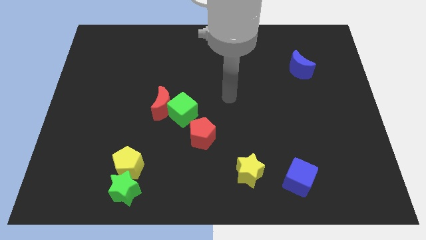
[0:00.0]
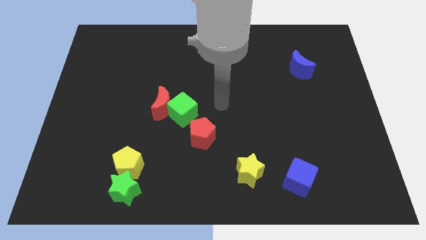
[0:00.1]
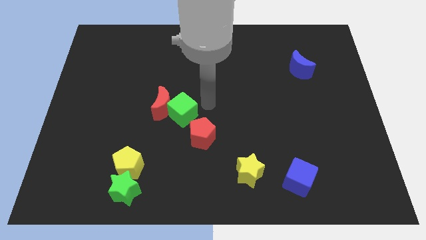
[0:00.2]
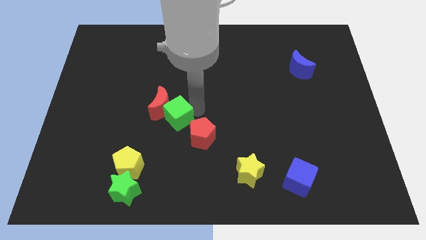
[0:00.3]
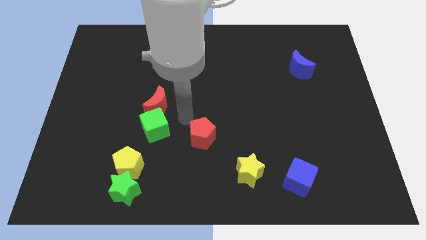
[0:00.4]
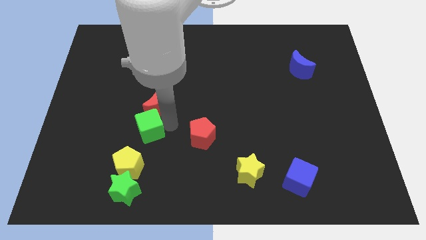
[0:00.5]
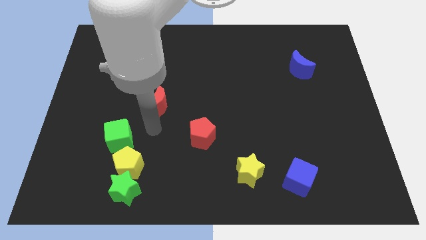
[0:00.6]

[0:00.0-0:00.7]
move the red moon away from the green cube

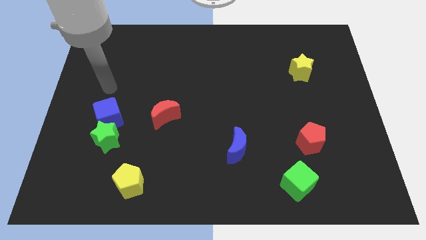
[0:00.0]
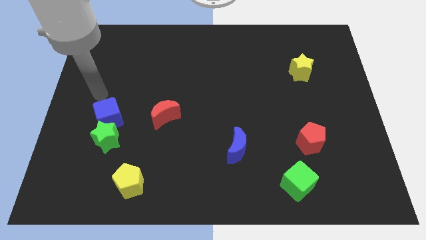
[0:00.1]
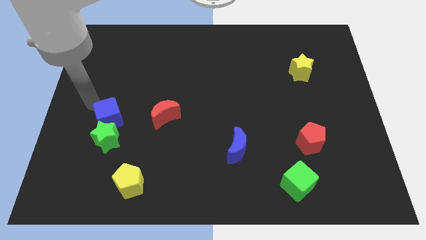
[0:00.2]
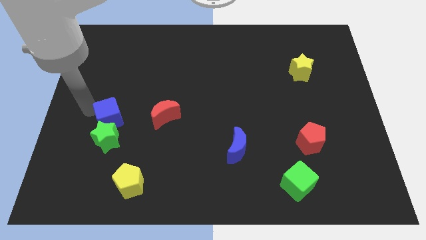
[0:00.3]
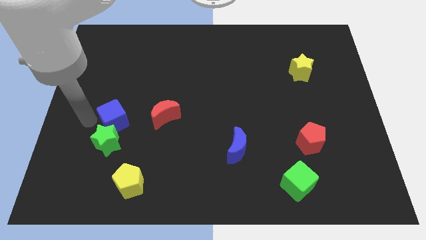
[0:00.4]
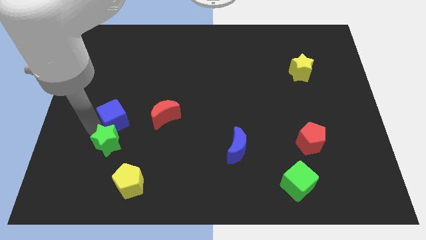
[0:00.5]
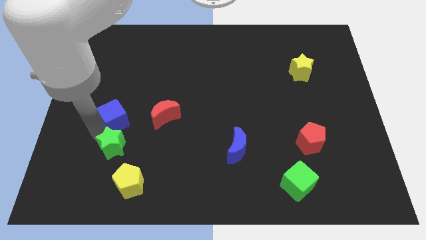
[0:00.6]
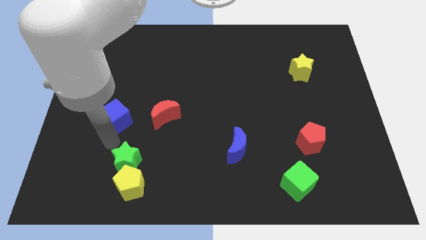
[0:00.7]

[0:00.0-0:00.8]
separate the blue cube from the green star

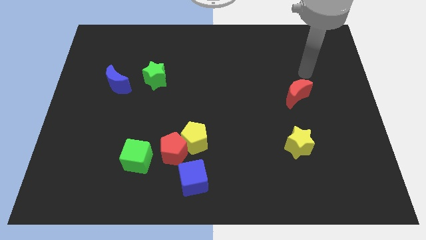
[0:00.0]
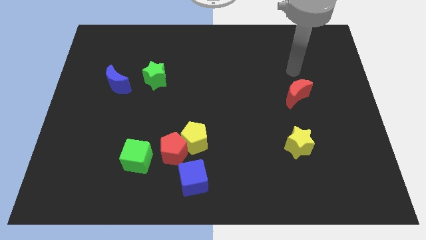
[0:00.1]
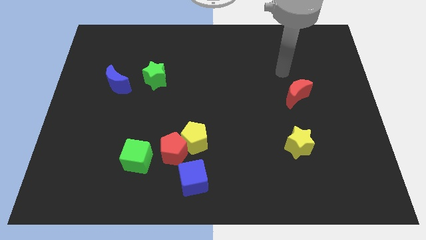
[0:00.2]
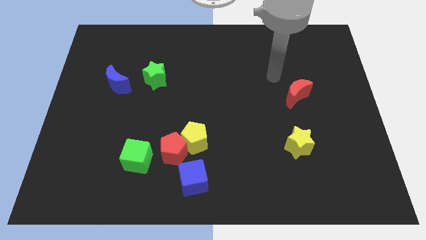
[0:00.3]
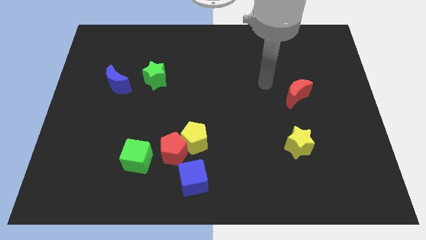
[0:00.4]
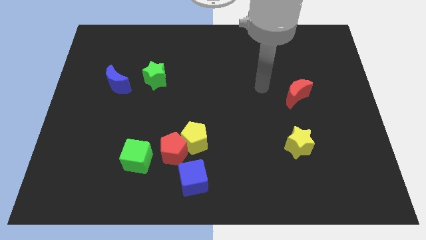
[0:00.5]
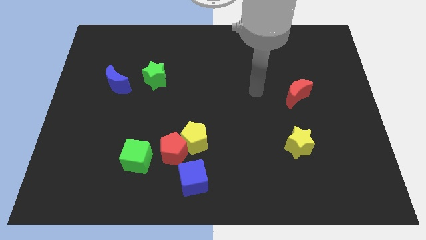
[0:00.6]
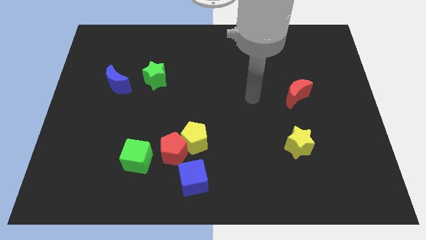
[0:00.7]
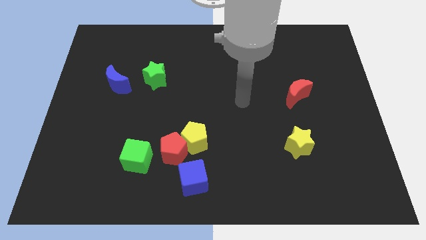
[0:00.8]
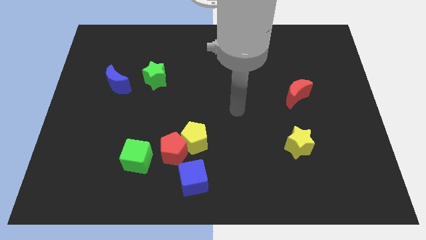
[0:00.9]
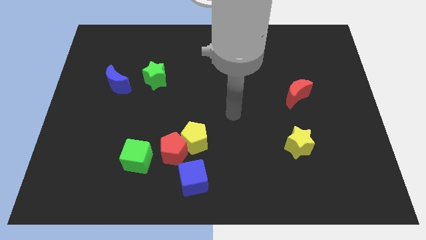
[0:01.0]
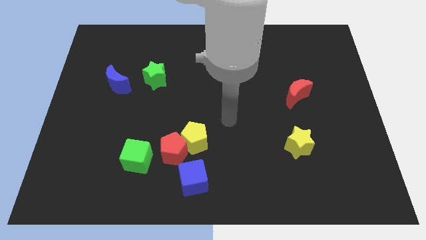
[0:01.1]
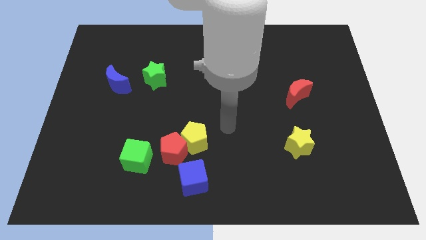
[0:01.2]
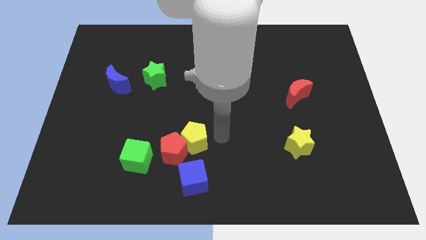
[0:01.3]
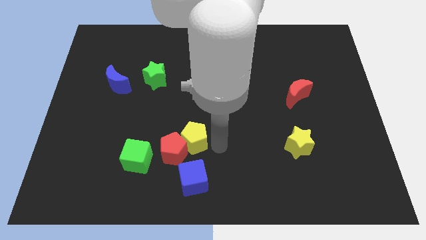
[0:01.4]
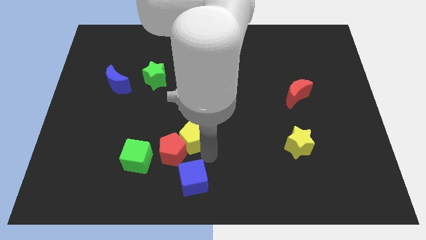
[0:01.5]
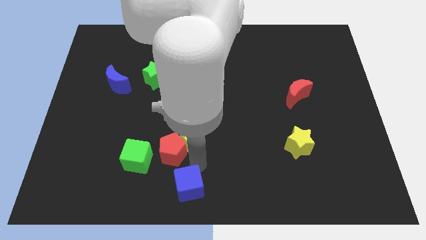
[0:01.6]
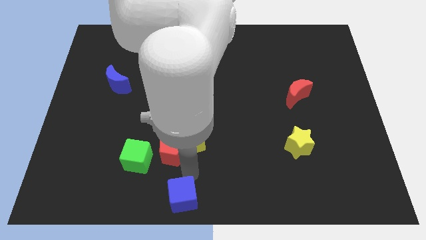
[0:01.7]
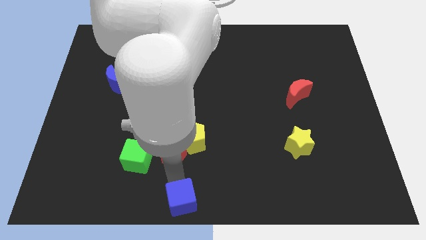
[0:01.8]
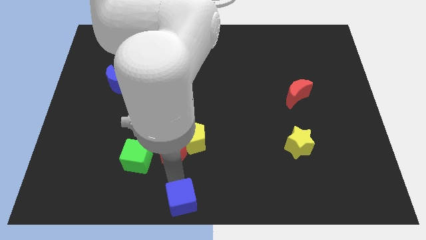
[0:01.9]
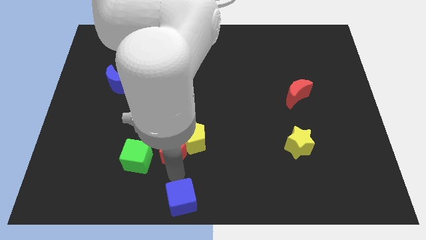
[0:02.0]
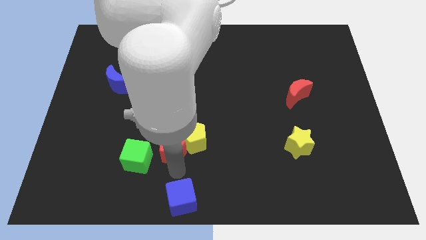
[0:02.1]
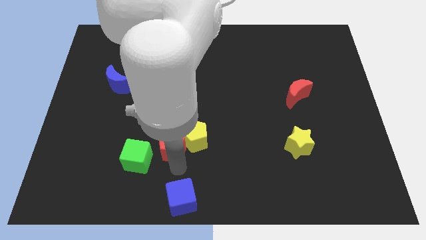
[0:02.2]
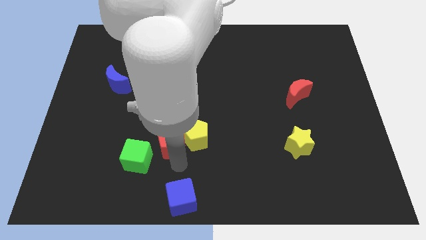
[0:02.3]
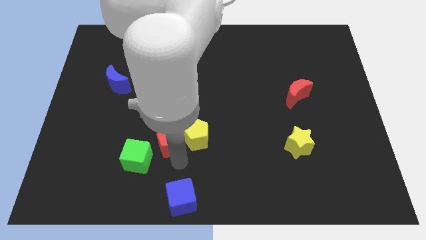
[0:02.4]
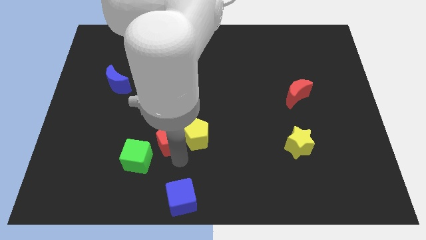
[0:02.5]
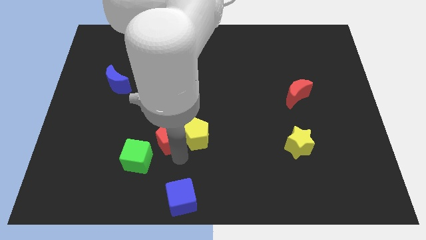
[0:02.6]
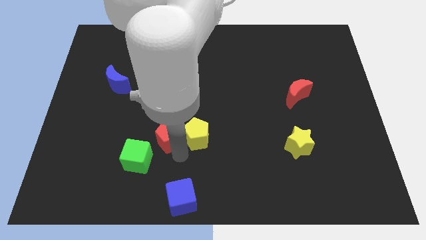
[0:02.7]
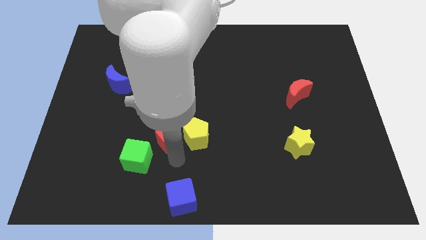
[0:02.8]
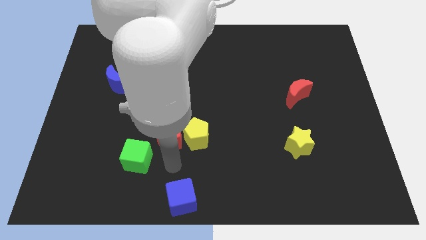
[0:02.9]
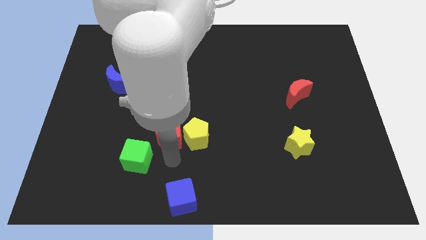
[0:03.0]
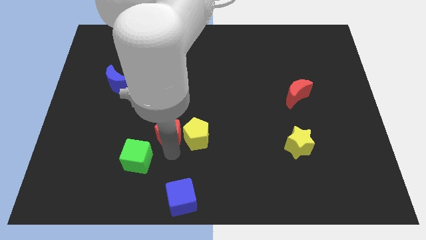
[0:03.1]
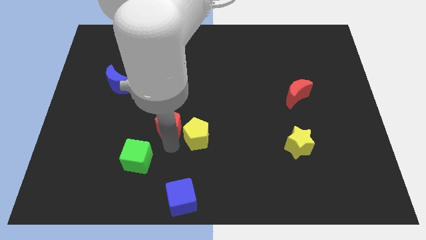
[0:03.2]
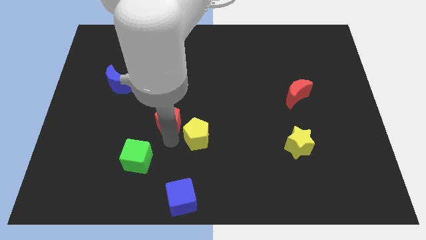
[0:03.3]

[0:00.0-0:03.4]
move the red pentagon away from the yellow pentagon, blue cube, and green cube

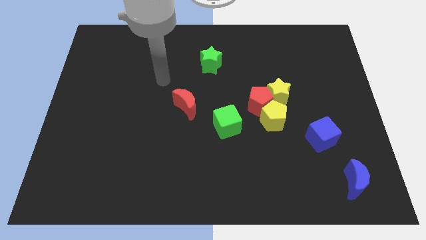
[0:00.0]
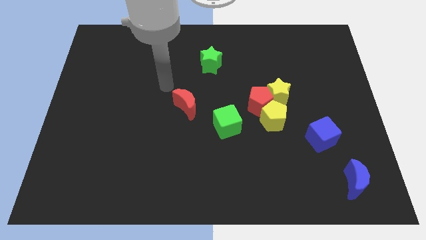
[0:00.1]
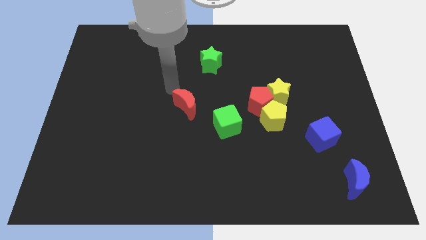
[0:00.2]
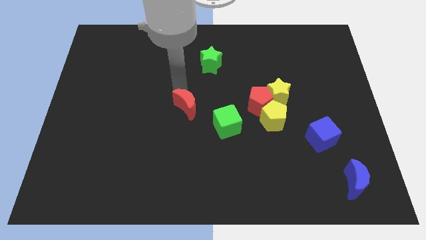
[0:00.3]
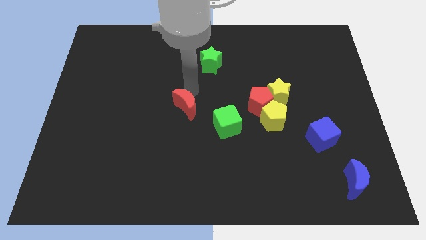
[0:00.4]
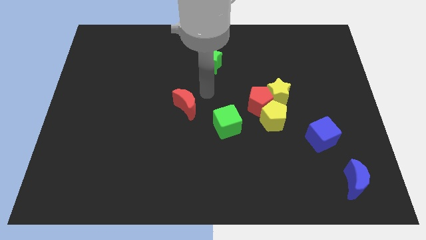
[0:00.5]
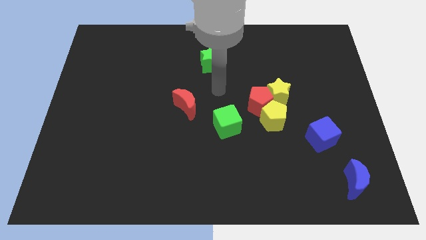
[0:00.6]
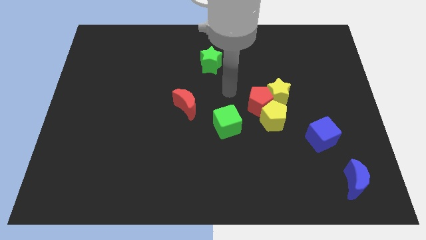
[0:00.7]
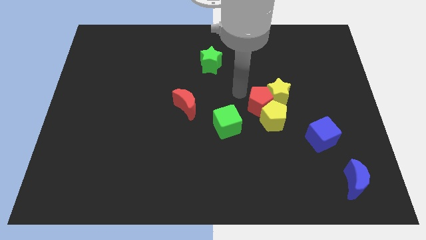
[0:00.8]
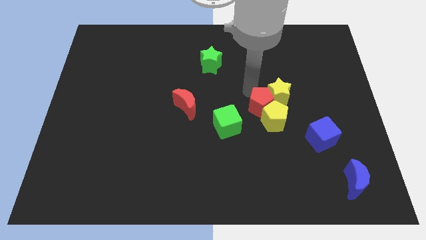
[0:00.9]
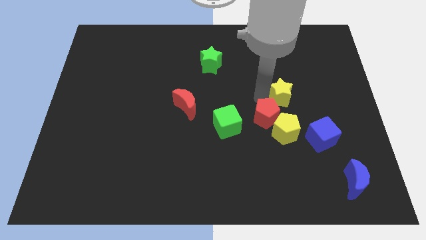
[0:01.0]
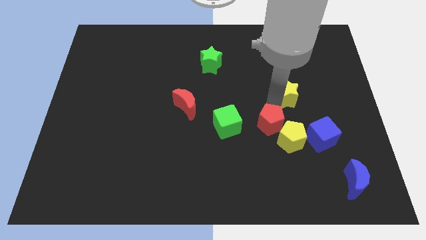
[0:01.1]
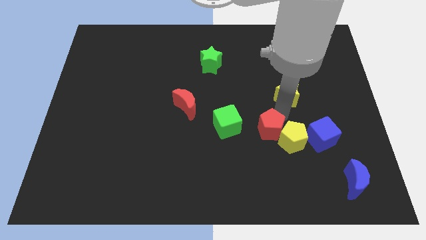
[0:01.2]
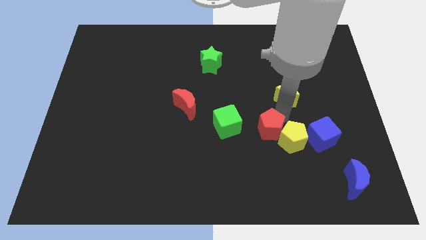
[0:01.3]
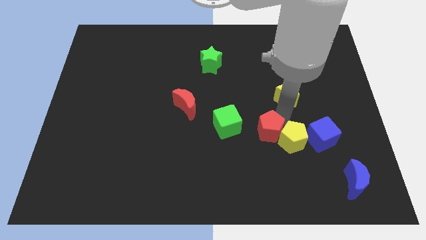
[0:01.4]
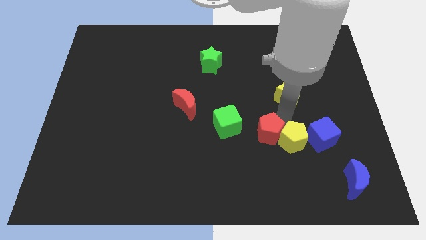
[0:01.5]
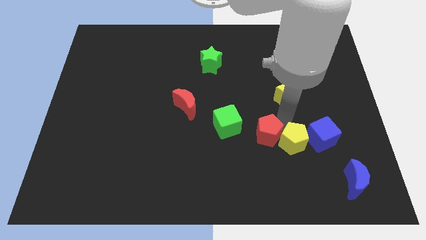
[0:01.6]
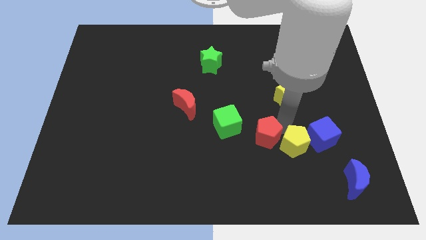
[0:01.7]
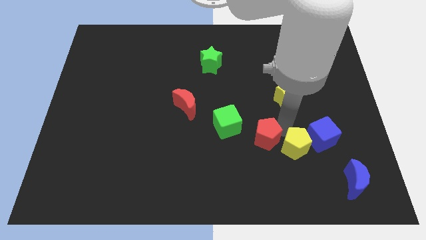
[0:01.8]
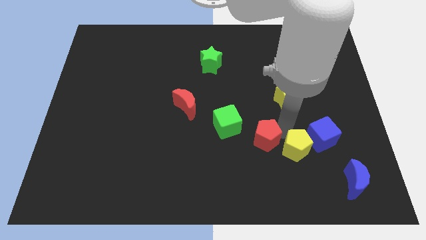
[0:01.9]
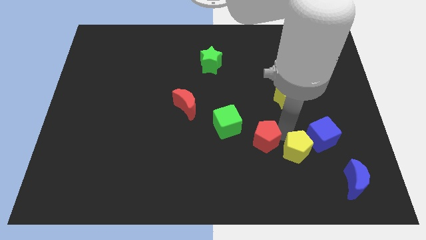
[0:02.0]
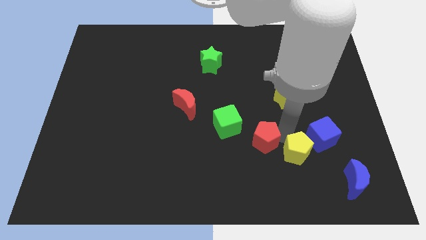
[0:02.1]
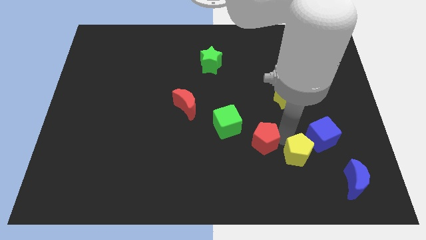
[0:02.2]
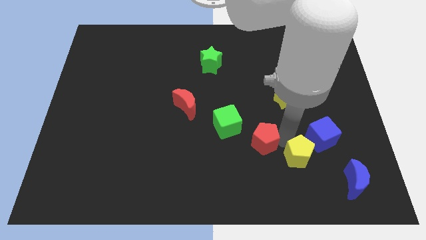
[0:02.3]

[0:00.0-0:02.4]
move the yellow pentagon away from the red pentagon and yellow star

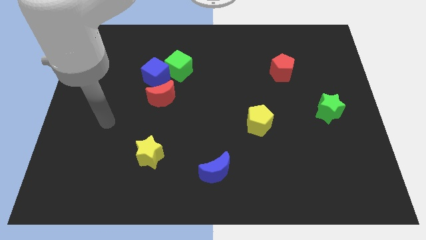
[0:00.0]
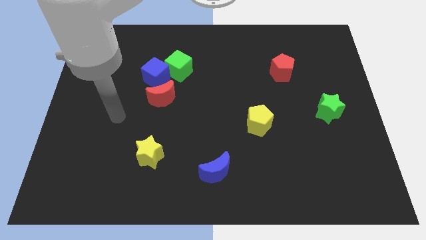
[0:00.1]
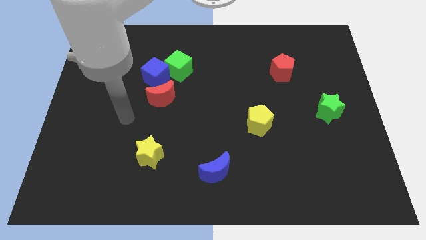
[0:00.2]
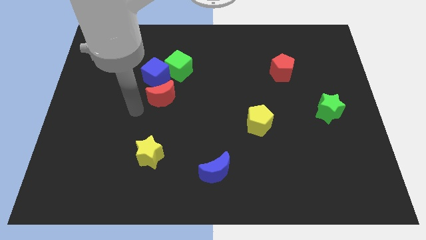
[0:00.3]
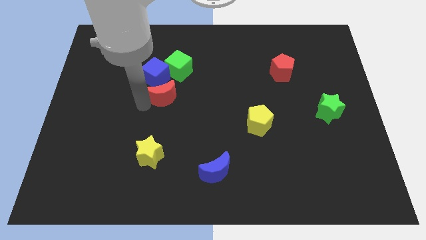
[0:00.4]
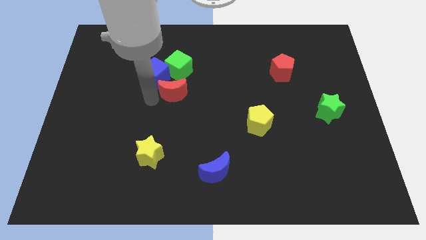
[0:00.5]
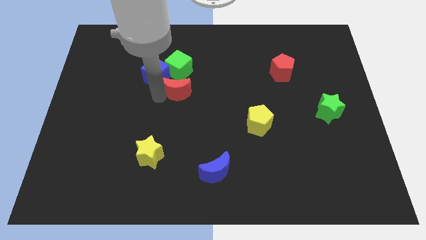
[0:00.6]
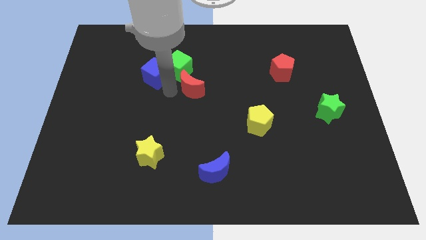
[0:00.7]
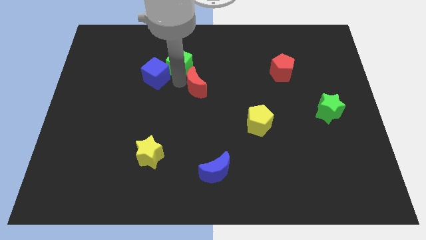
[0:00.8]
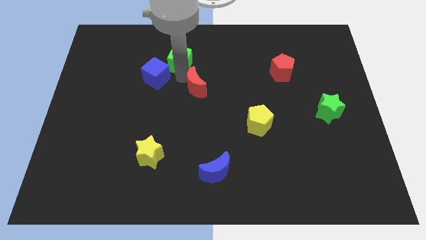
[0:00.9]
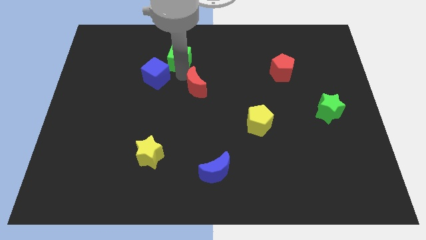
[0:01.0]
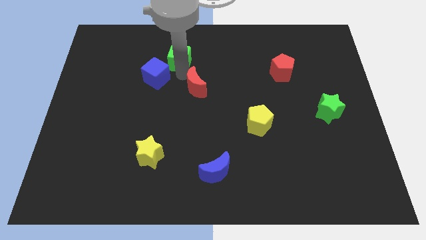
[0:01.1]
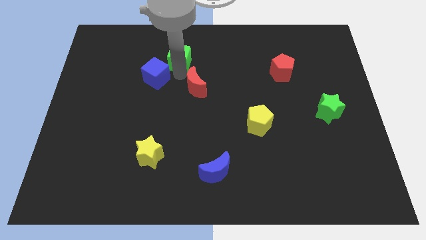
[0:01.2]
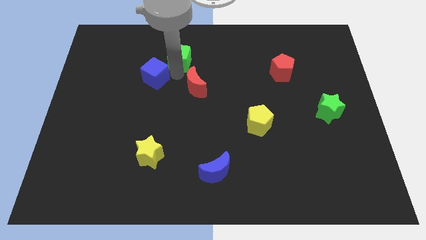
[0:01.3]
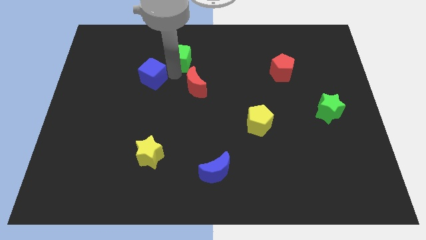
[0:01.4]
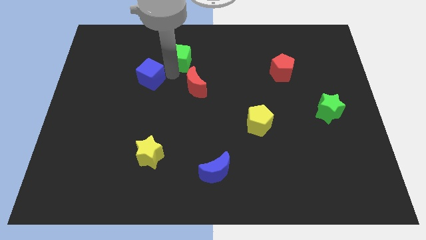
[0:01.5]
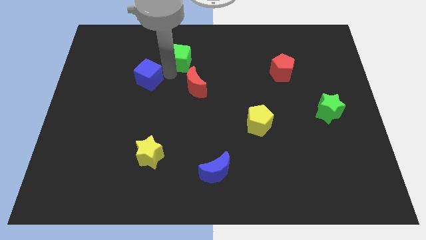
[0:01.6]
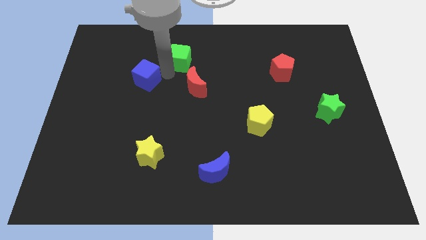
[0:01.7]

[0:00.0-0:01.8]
pull the blue cube apart from the green cube and red moon
